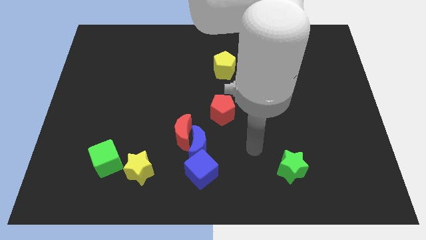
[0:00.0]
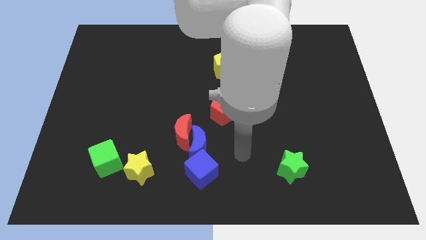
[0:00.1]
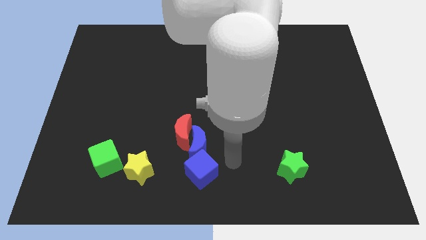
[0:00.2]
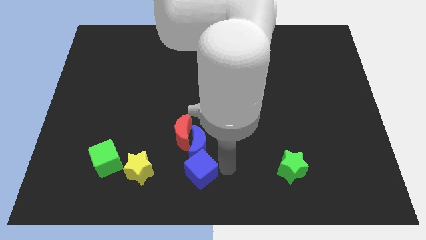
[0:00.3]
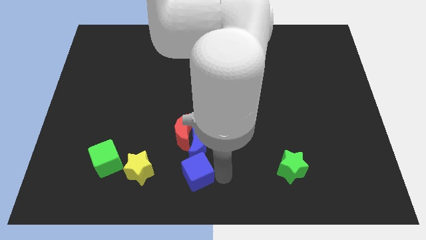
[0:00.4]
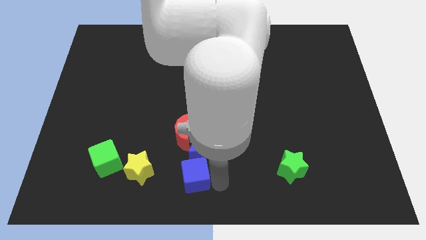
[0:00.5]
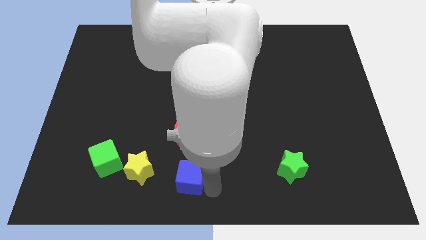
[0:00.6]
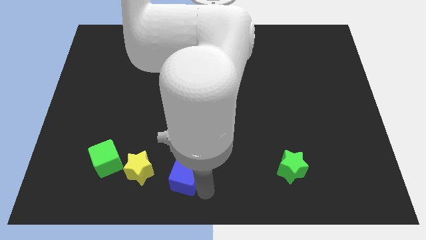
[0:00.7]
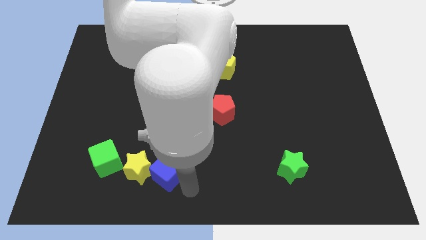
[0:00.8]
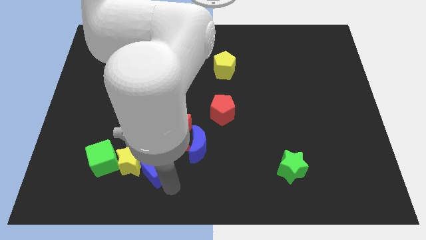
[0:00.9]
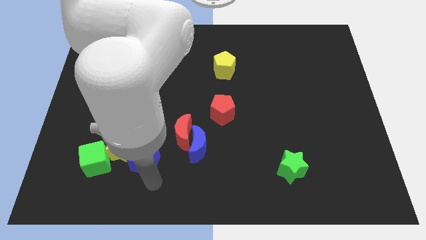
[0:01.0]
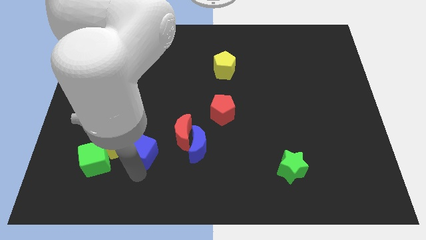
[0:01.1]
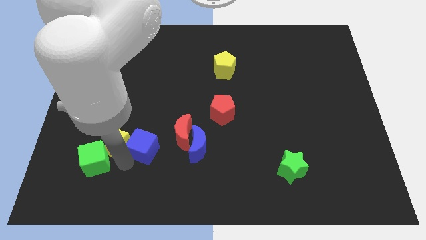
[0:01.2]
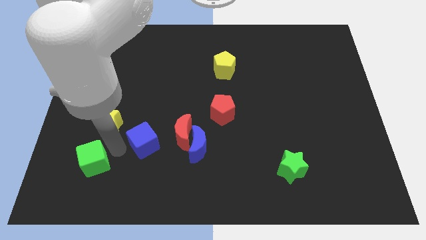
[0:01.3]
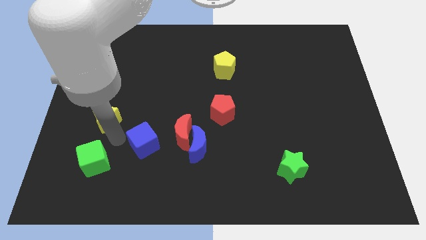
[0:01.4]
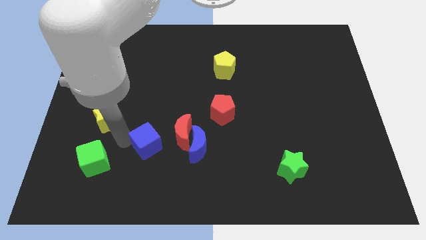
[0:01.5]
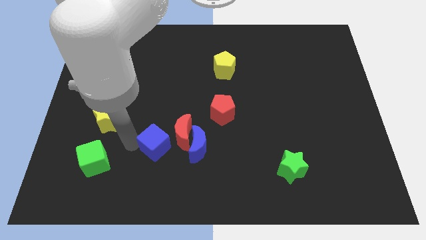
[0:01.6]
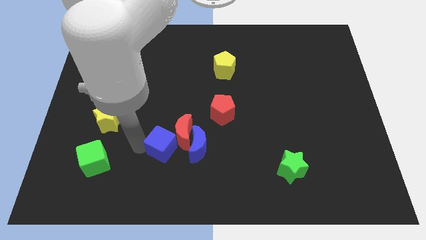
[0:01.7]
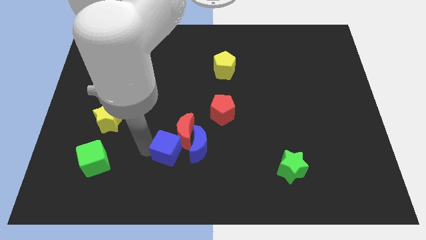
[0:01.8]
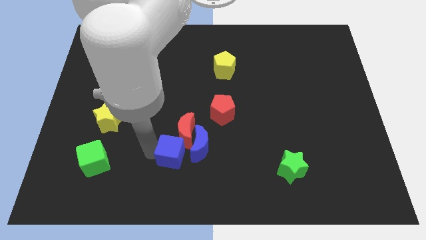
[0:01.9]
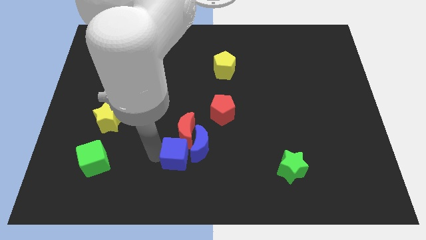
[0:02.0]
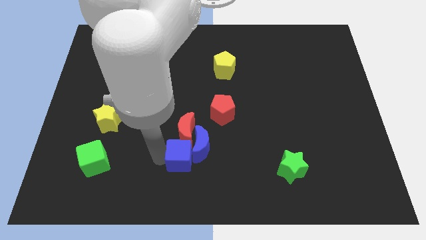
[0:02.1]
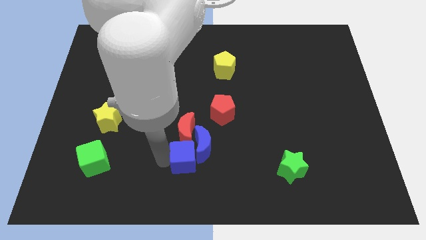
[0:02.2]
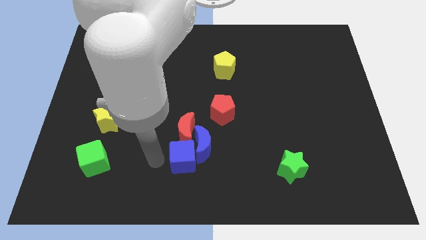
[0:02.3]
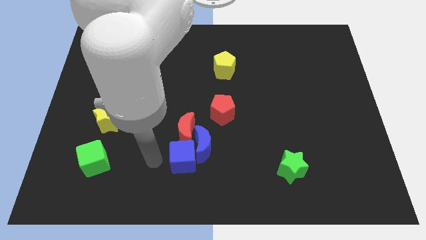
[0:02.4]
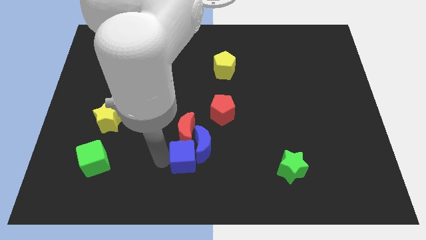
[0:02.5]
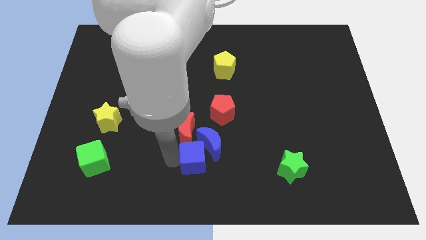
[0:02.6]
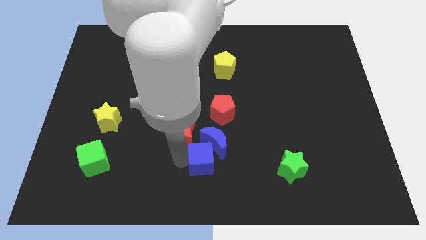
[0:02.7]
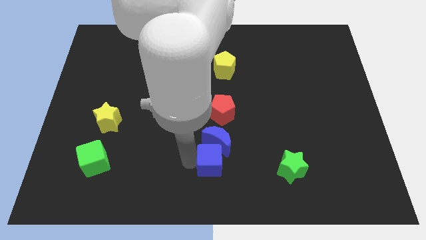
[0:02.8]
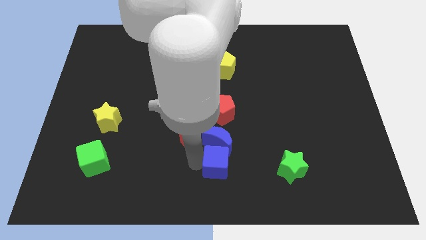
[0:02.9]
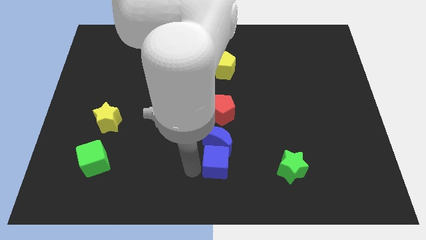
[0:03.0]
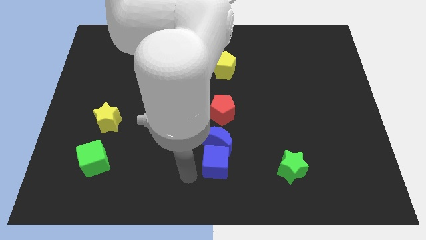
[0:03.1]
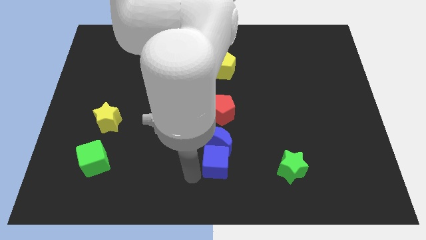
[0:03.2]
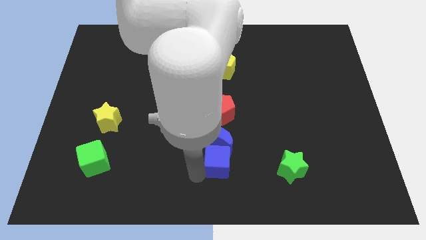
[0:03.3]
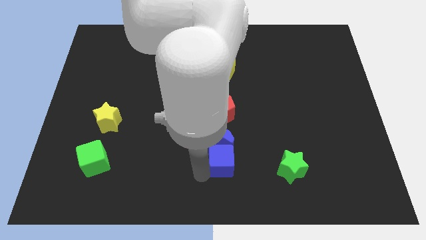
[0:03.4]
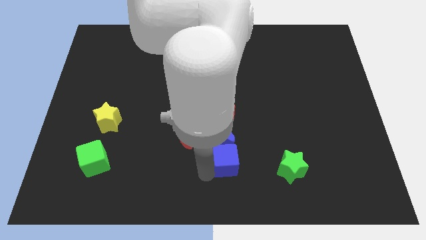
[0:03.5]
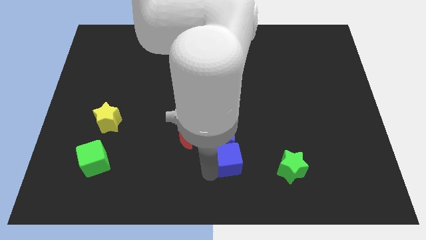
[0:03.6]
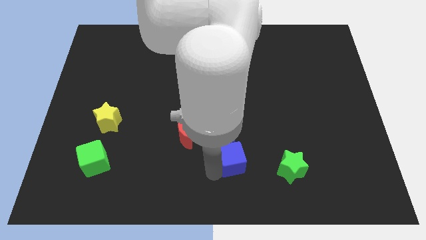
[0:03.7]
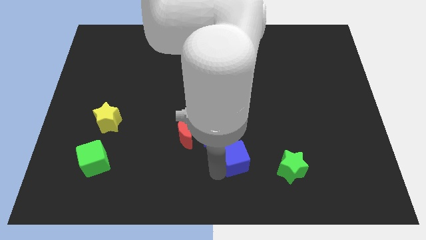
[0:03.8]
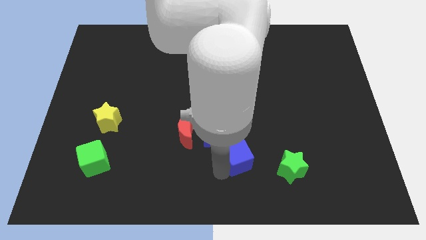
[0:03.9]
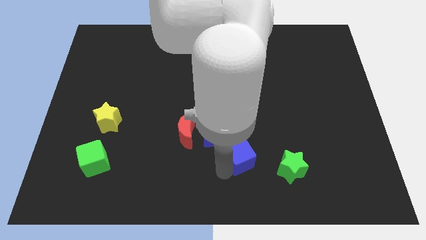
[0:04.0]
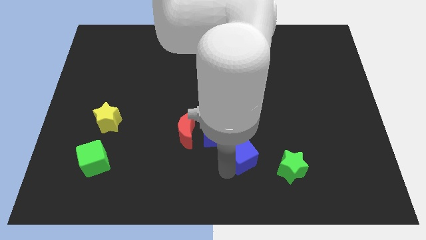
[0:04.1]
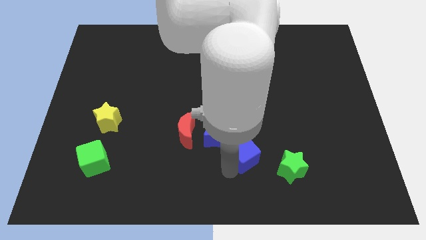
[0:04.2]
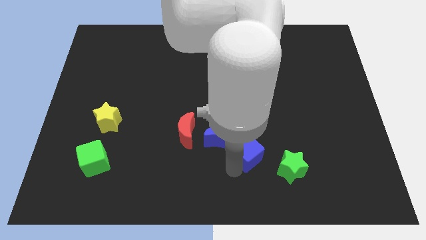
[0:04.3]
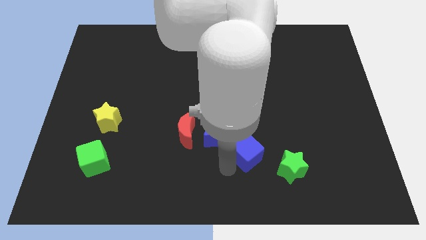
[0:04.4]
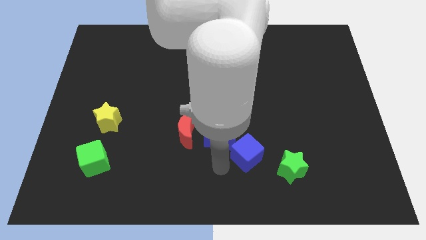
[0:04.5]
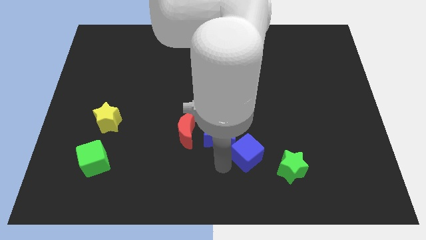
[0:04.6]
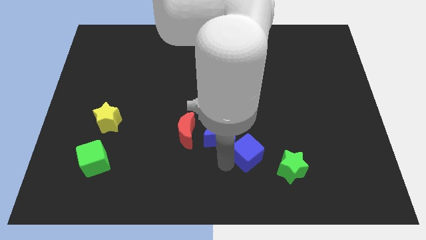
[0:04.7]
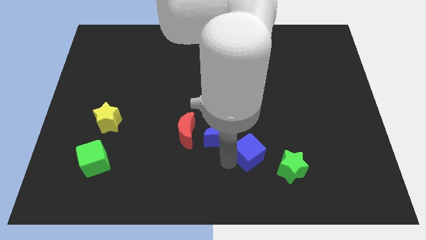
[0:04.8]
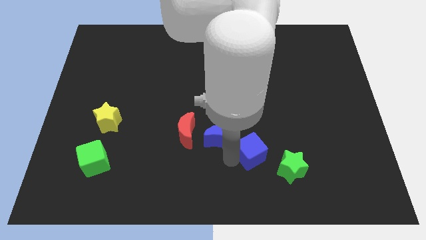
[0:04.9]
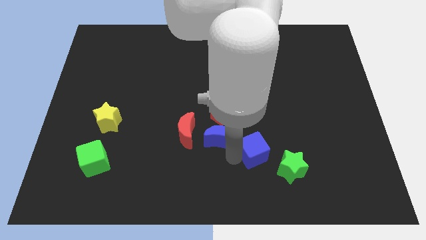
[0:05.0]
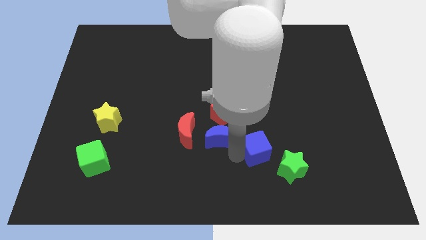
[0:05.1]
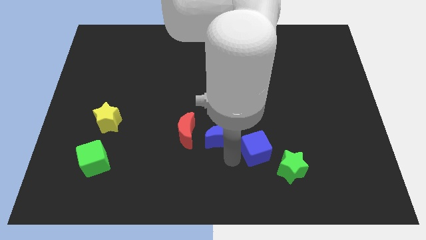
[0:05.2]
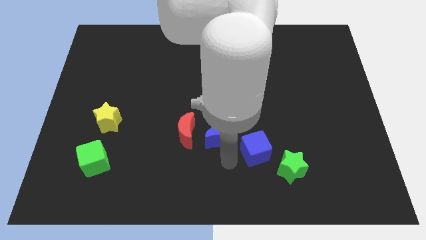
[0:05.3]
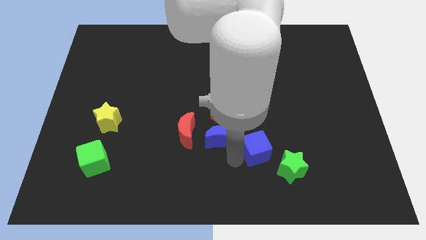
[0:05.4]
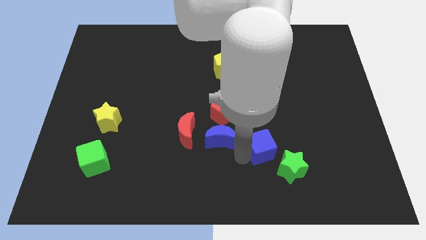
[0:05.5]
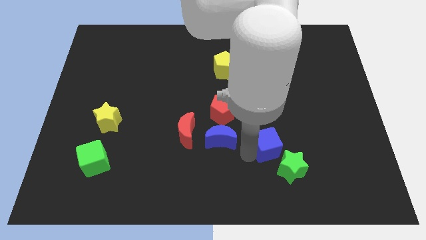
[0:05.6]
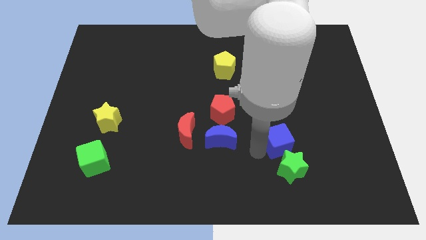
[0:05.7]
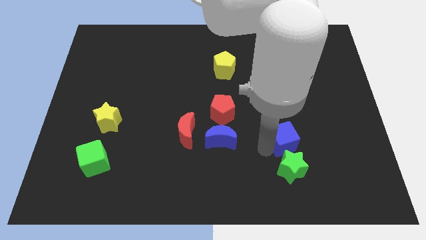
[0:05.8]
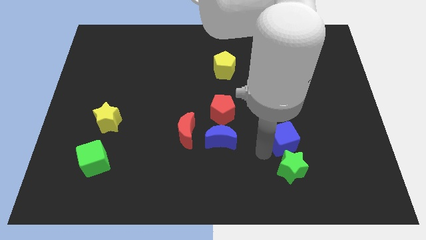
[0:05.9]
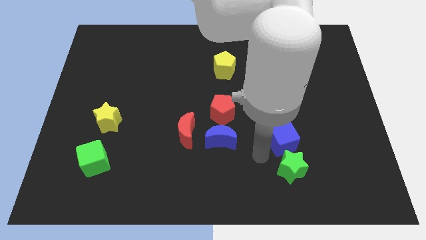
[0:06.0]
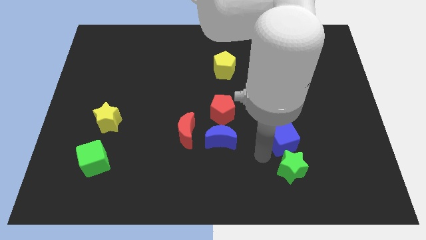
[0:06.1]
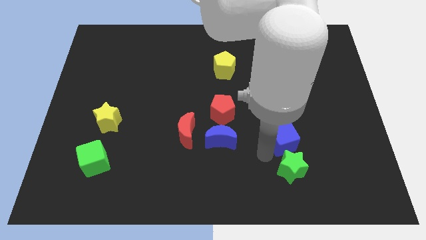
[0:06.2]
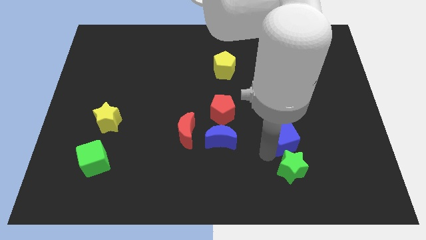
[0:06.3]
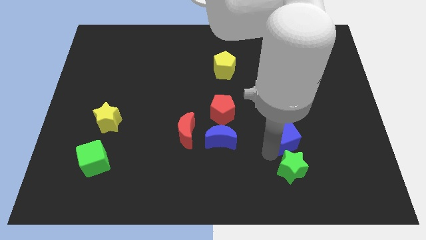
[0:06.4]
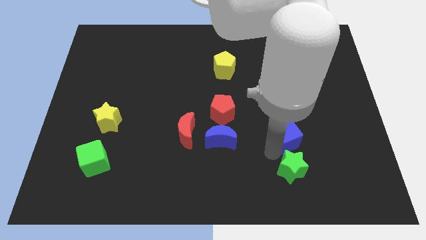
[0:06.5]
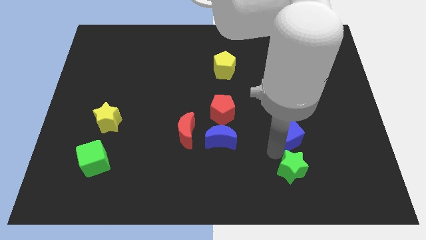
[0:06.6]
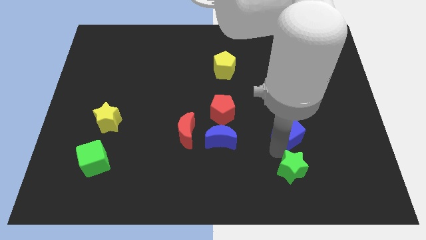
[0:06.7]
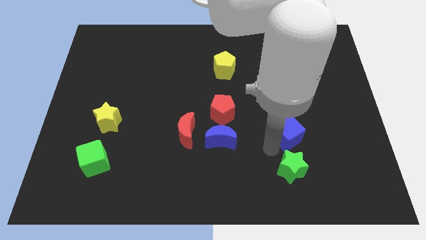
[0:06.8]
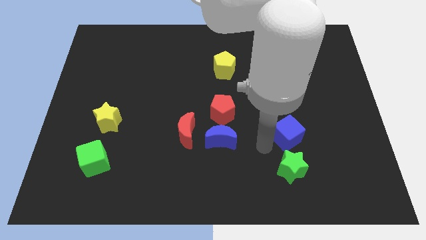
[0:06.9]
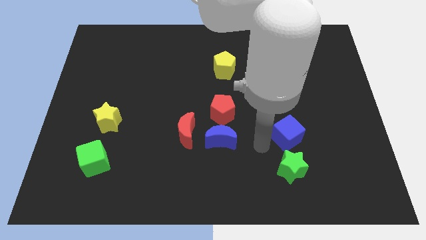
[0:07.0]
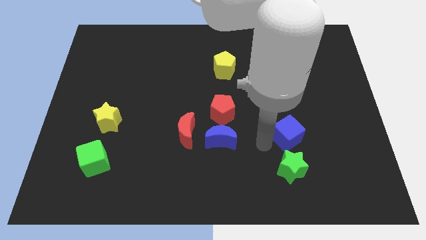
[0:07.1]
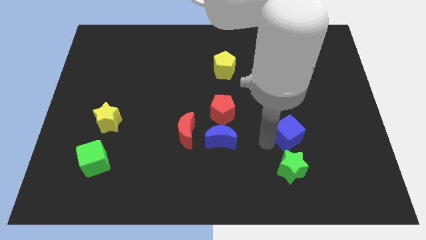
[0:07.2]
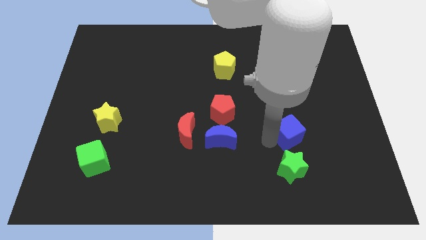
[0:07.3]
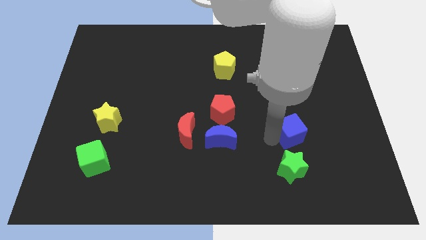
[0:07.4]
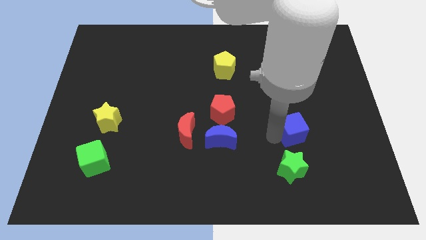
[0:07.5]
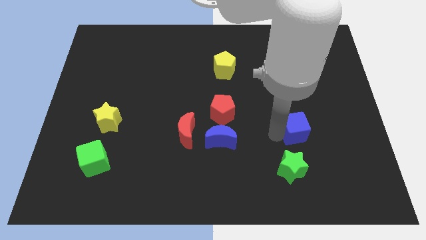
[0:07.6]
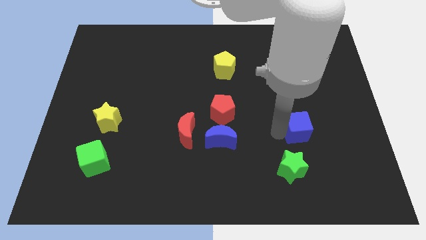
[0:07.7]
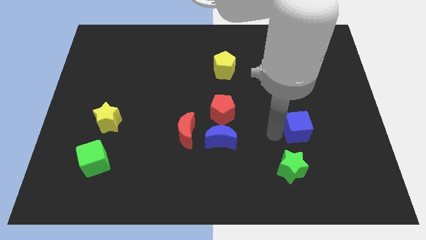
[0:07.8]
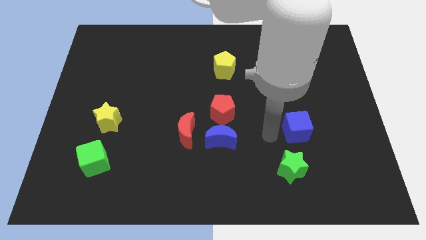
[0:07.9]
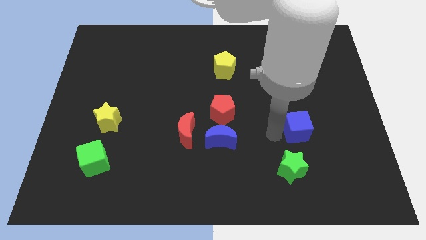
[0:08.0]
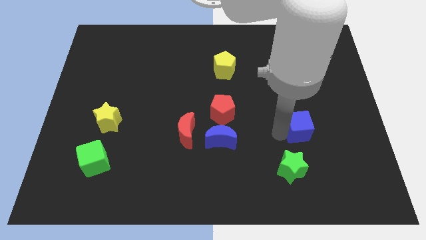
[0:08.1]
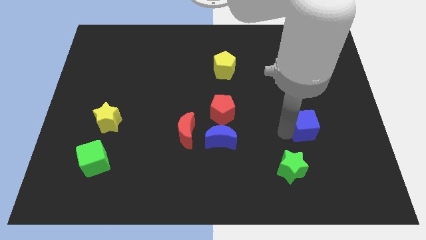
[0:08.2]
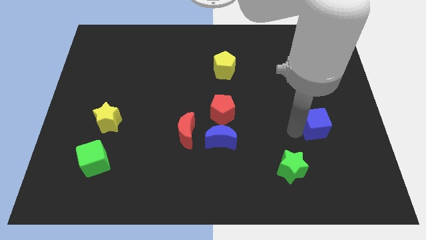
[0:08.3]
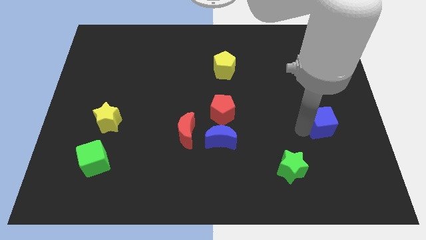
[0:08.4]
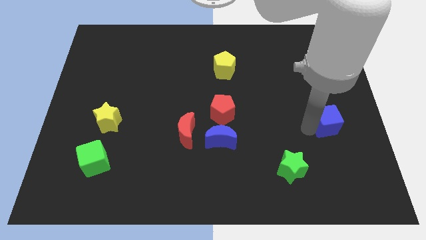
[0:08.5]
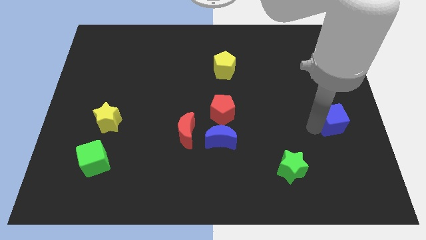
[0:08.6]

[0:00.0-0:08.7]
slide the blue cube to the right side of the board
